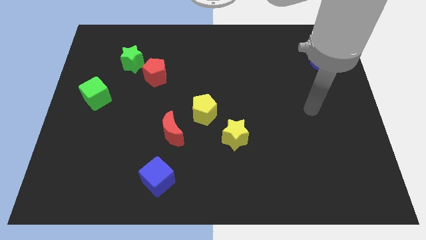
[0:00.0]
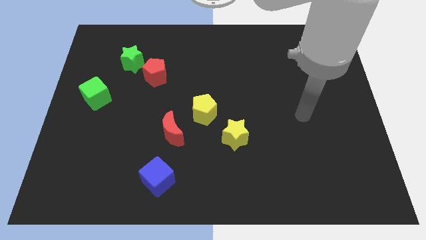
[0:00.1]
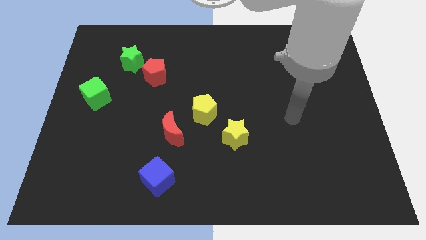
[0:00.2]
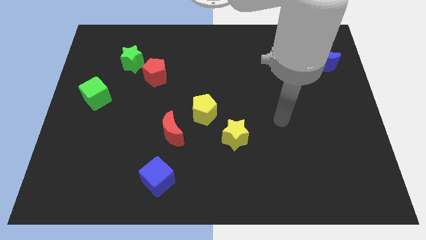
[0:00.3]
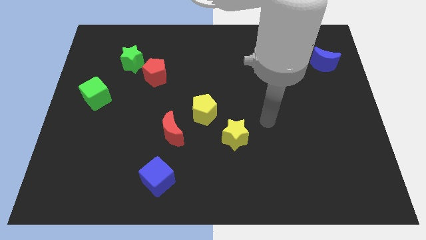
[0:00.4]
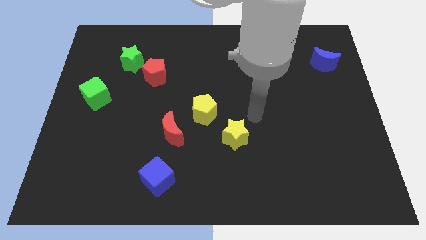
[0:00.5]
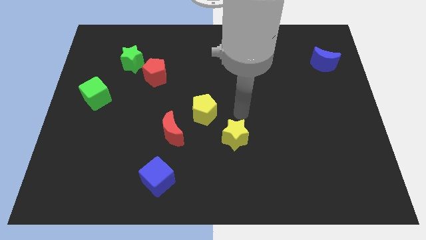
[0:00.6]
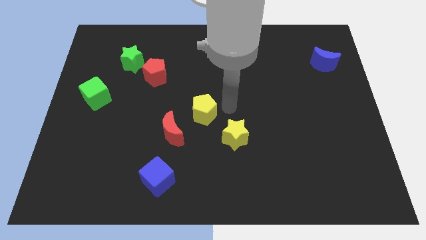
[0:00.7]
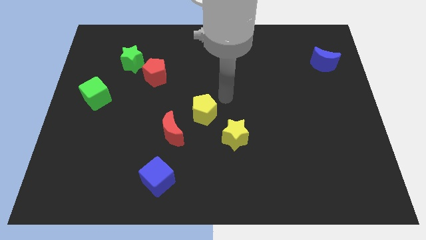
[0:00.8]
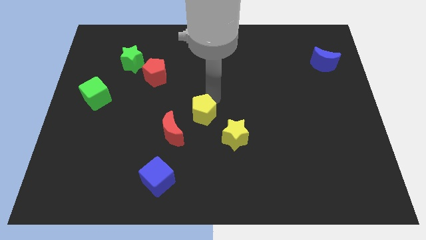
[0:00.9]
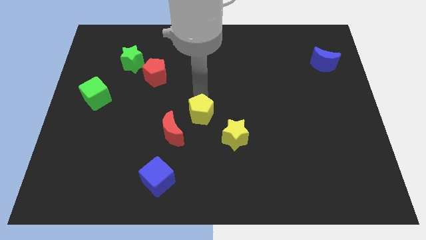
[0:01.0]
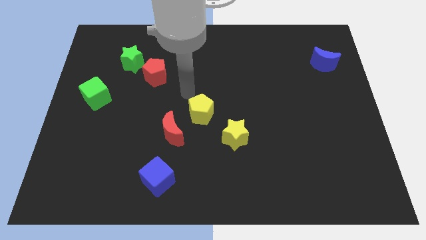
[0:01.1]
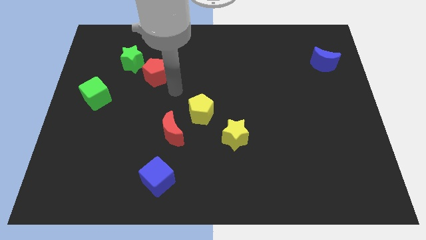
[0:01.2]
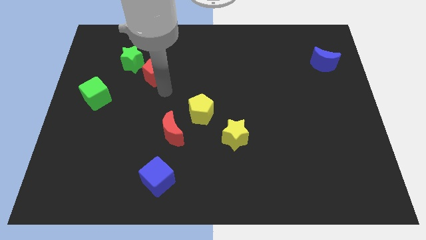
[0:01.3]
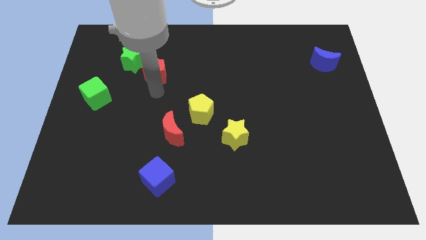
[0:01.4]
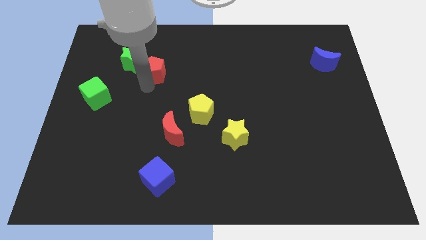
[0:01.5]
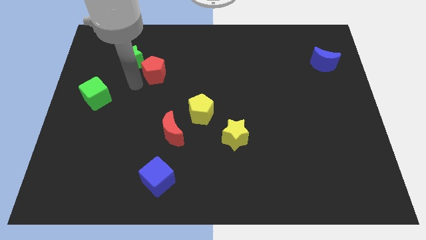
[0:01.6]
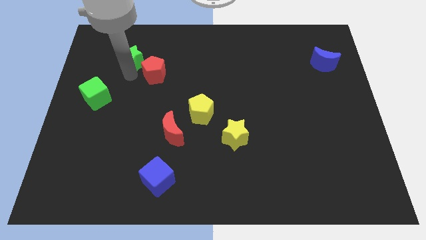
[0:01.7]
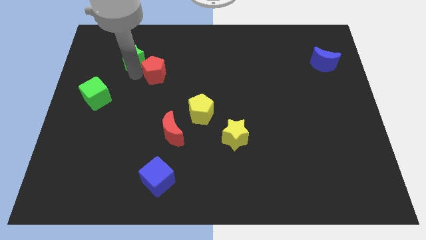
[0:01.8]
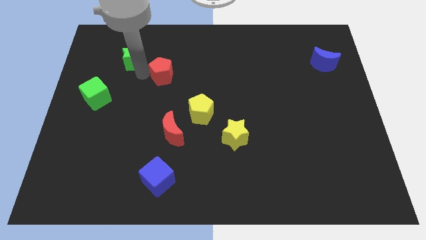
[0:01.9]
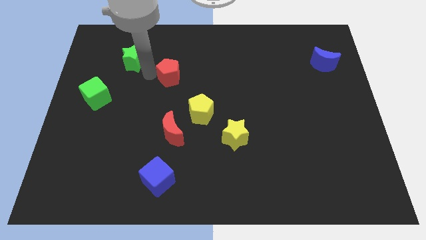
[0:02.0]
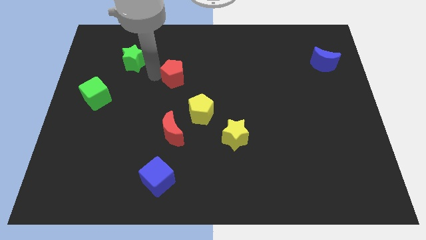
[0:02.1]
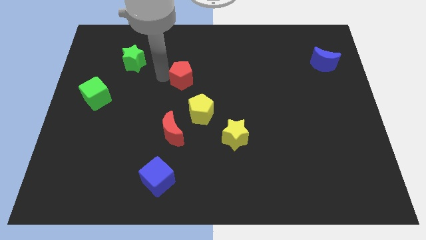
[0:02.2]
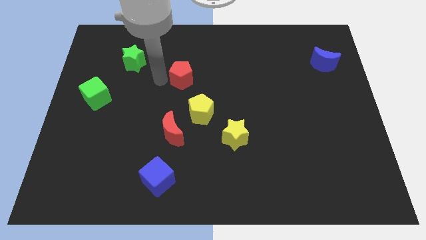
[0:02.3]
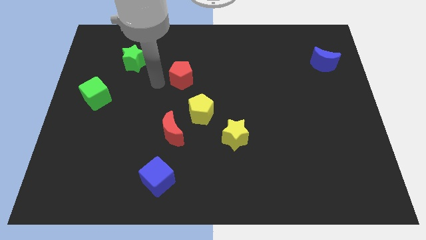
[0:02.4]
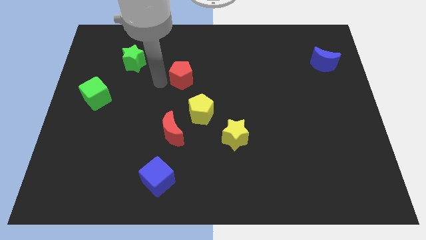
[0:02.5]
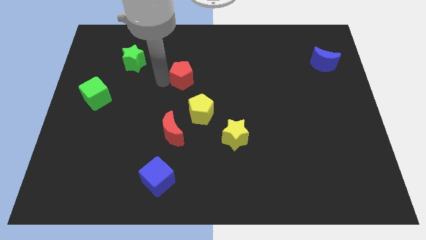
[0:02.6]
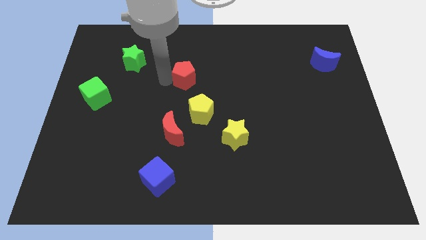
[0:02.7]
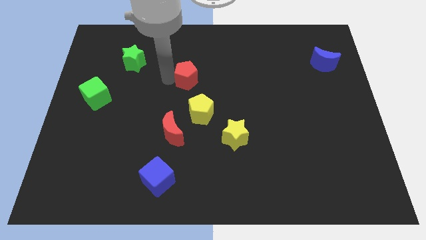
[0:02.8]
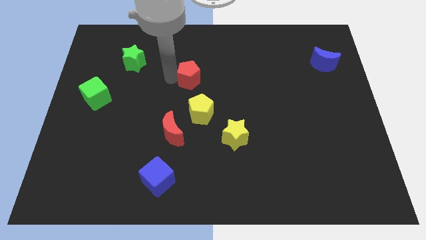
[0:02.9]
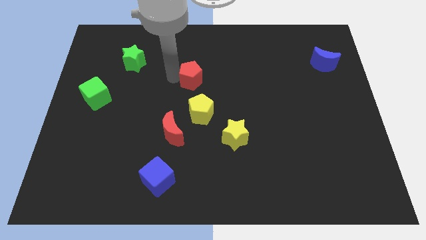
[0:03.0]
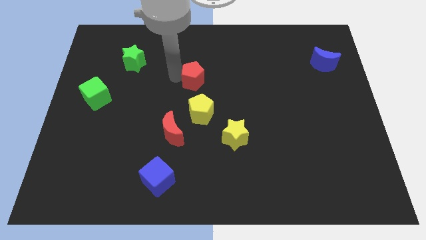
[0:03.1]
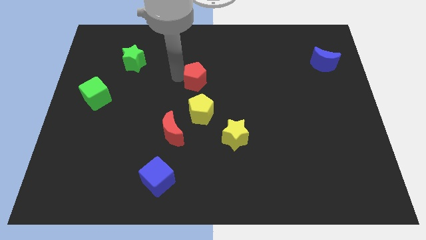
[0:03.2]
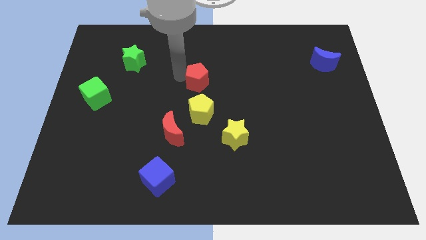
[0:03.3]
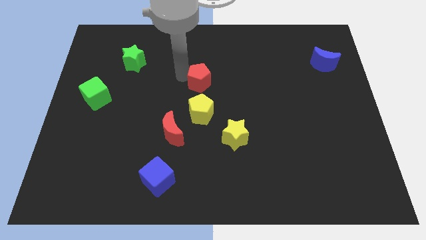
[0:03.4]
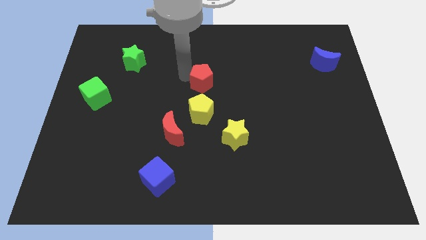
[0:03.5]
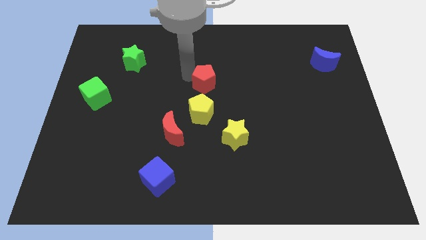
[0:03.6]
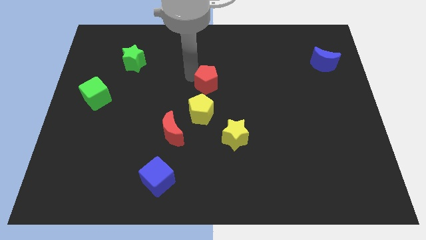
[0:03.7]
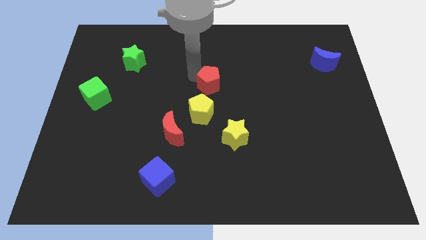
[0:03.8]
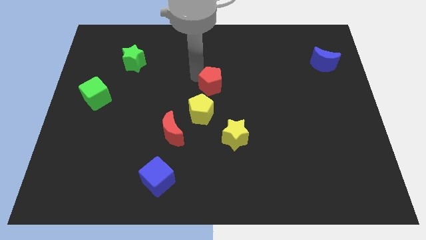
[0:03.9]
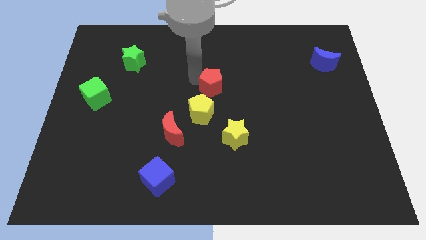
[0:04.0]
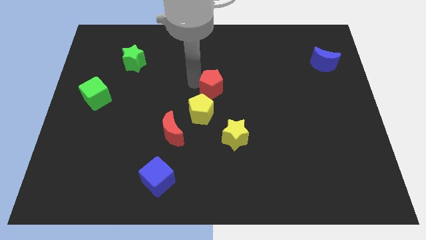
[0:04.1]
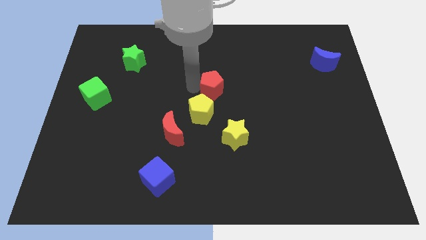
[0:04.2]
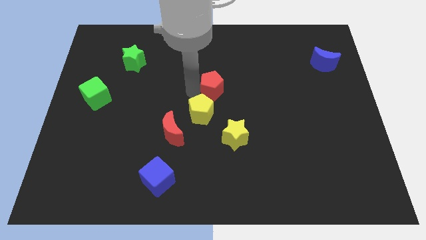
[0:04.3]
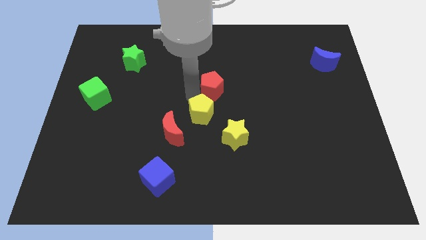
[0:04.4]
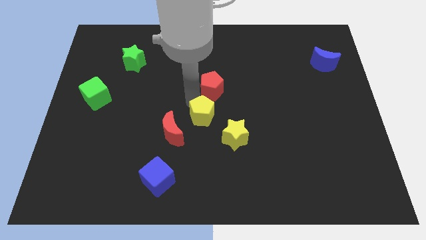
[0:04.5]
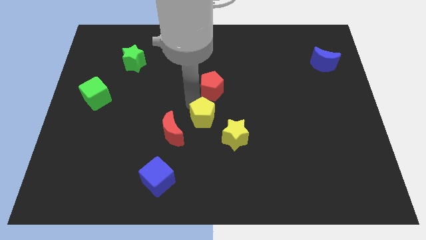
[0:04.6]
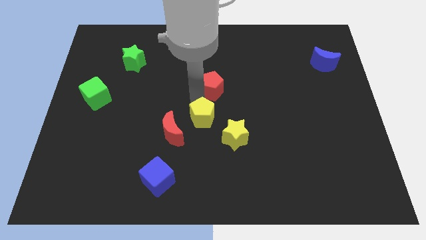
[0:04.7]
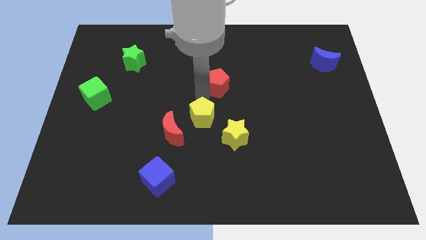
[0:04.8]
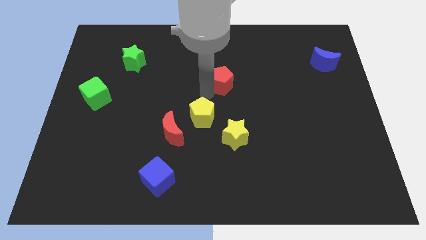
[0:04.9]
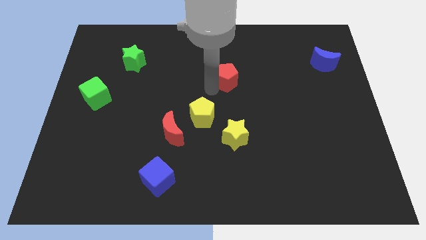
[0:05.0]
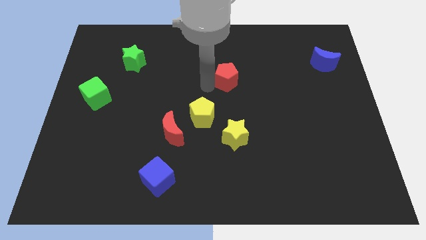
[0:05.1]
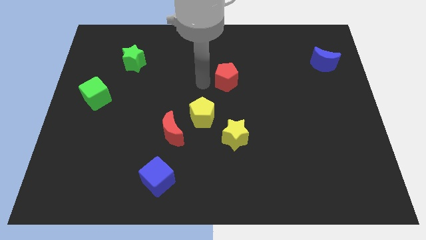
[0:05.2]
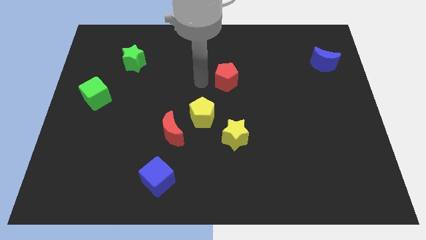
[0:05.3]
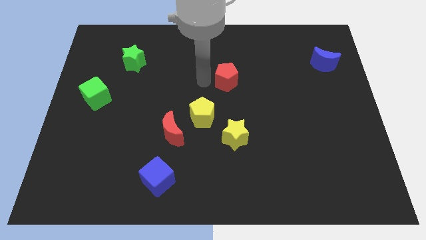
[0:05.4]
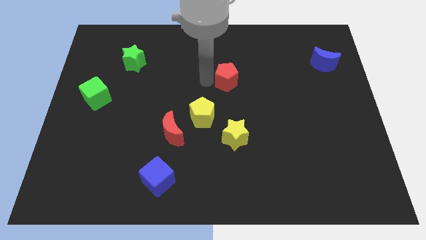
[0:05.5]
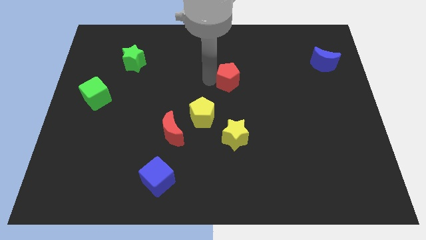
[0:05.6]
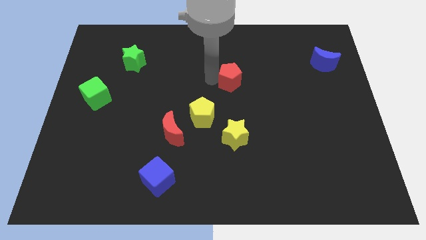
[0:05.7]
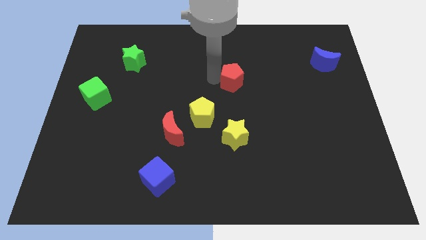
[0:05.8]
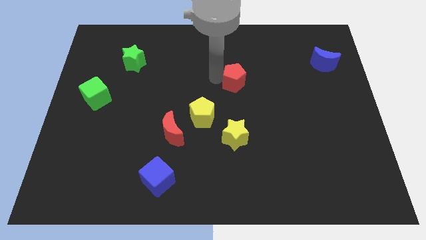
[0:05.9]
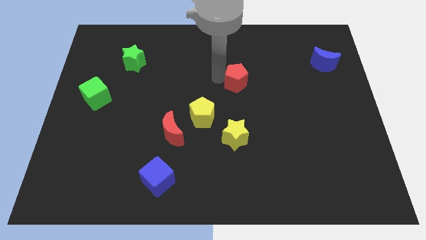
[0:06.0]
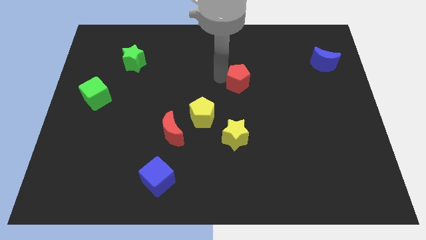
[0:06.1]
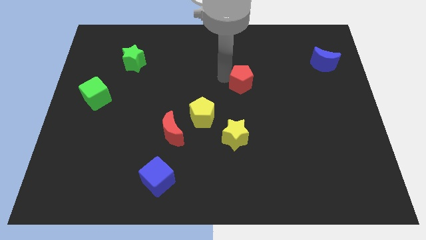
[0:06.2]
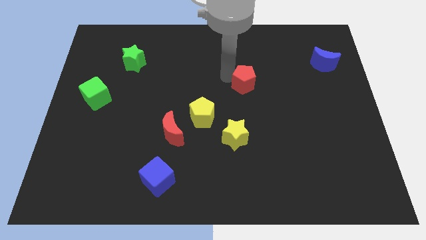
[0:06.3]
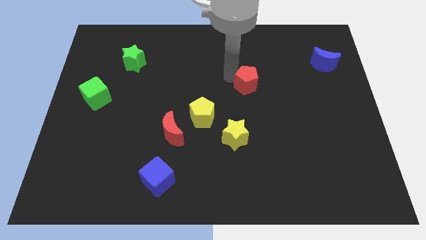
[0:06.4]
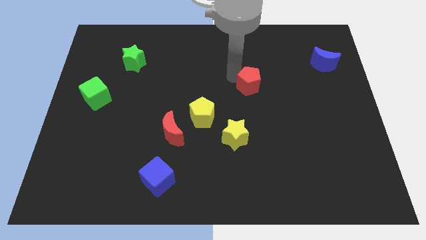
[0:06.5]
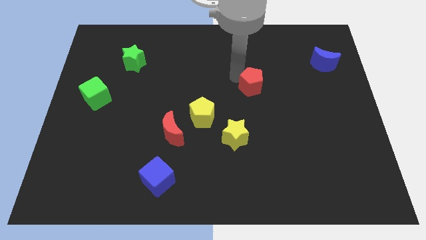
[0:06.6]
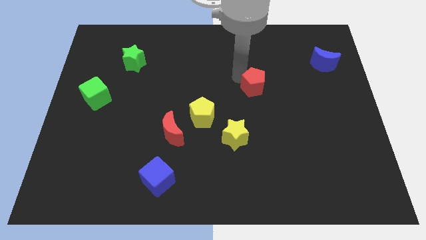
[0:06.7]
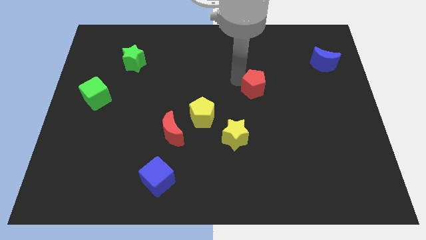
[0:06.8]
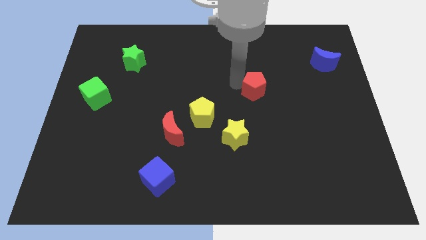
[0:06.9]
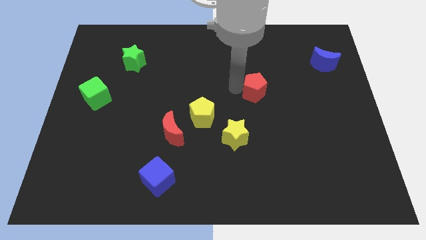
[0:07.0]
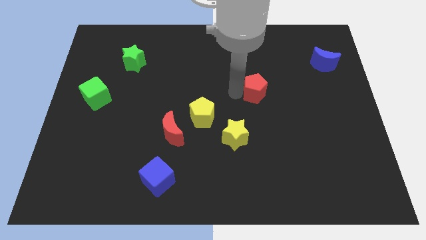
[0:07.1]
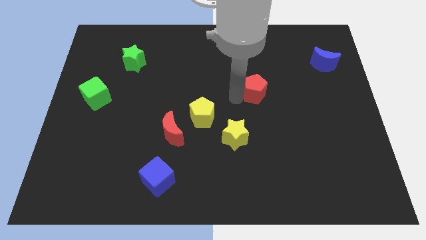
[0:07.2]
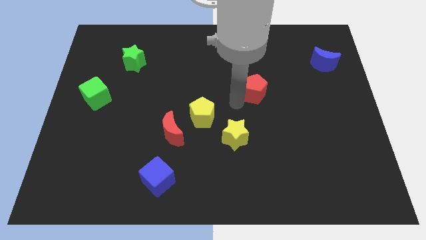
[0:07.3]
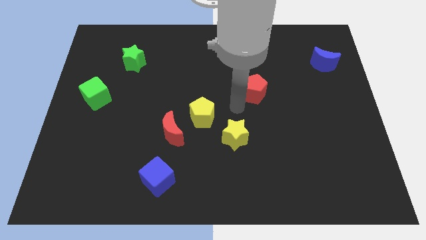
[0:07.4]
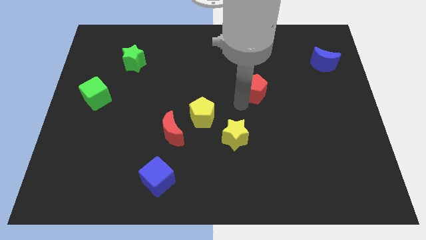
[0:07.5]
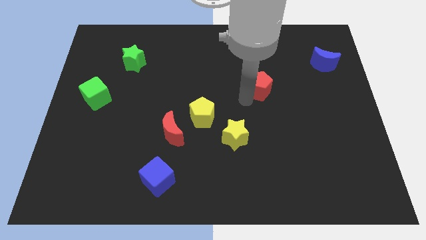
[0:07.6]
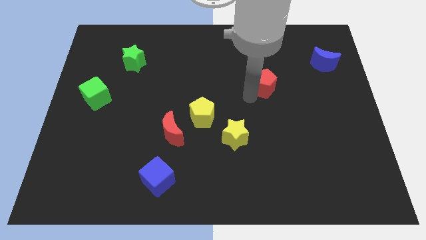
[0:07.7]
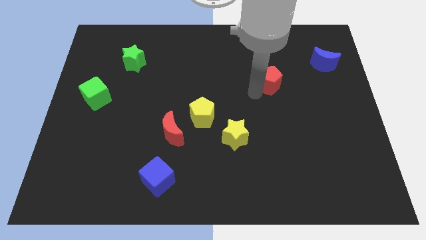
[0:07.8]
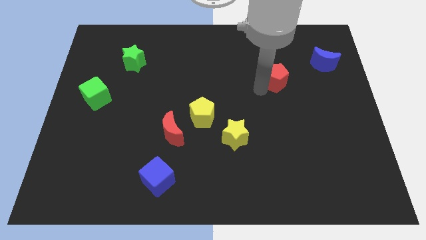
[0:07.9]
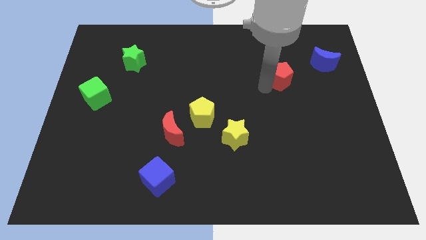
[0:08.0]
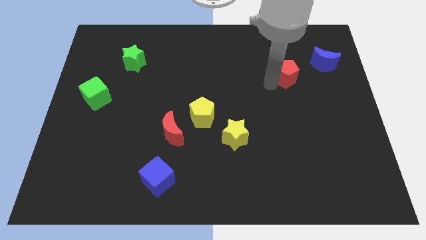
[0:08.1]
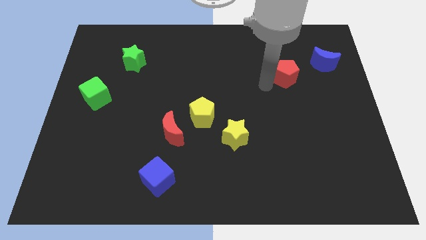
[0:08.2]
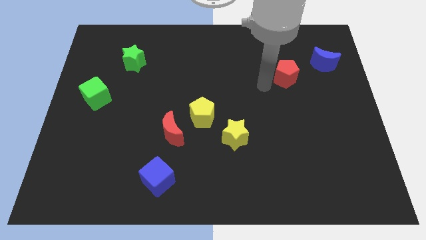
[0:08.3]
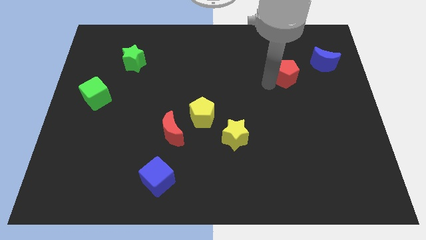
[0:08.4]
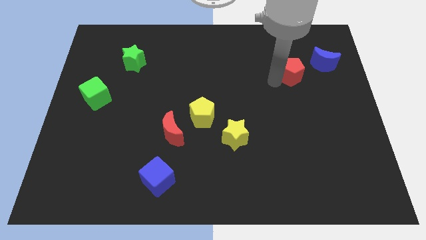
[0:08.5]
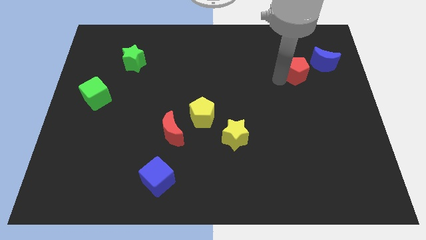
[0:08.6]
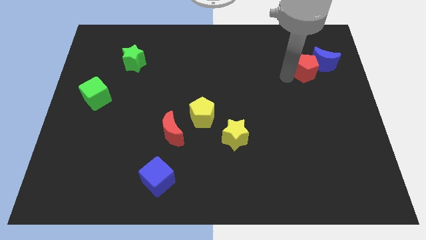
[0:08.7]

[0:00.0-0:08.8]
push the red pentagon close to the blue moon
